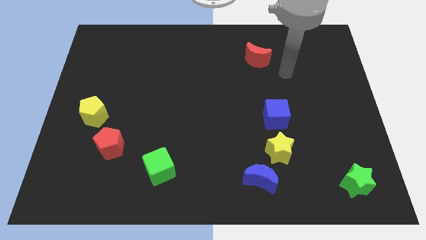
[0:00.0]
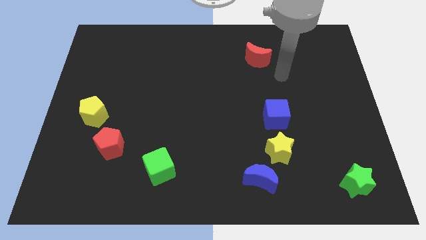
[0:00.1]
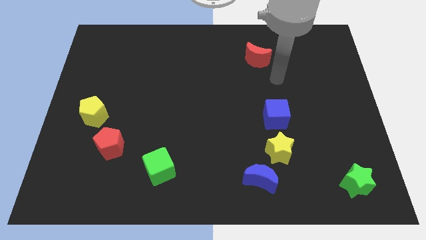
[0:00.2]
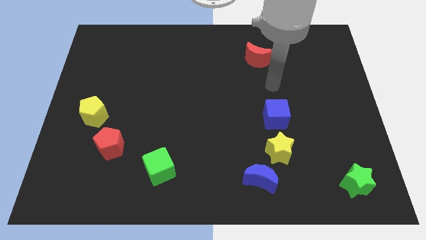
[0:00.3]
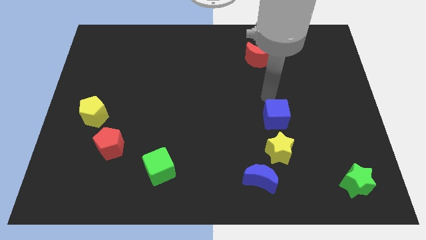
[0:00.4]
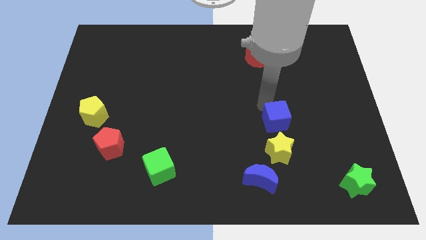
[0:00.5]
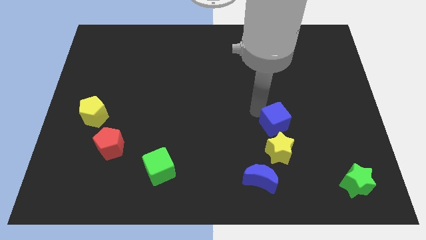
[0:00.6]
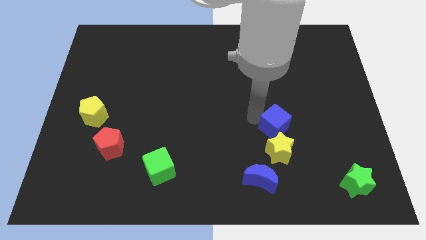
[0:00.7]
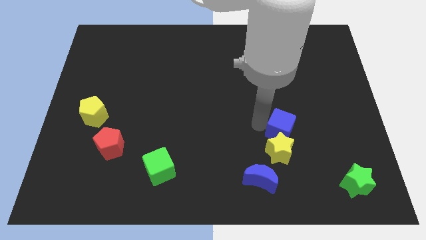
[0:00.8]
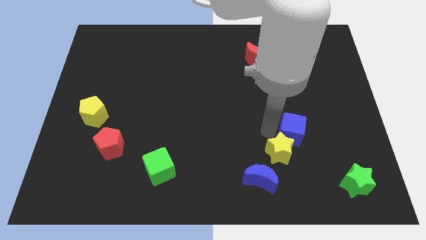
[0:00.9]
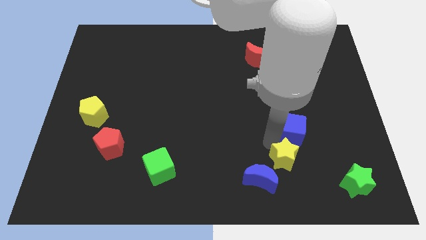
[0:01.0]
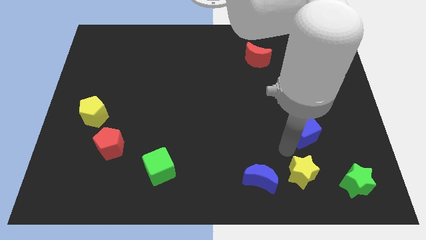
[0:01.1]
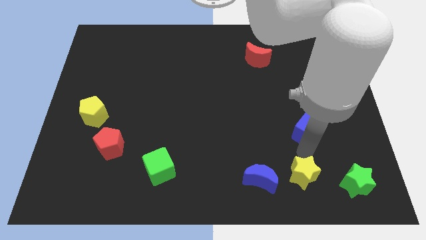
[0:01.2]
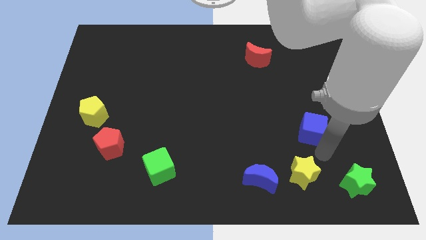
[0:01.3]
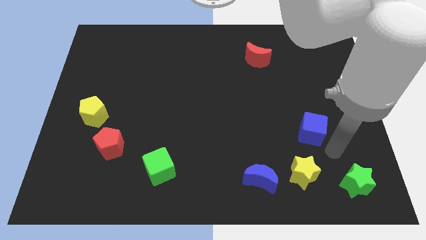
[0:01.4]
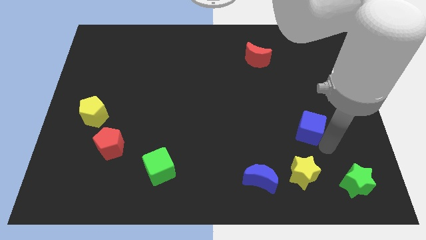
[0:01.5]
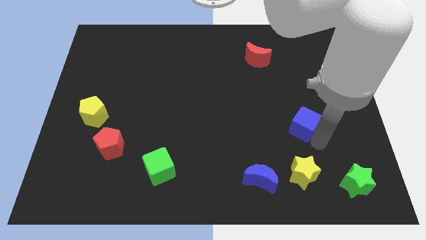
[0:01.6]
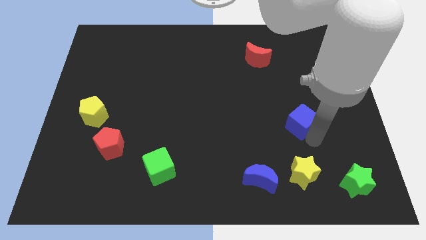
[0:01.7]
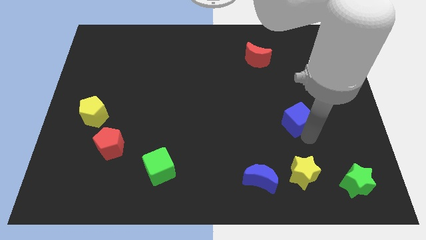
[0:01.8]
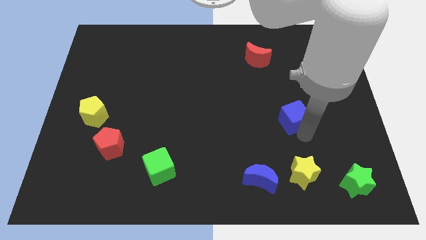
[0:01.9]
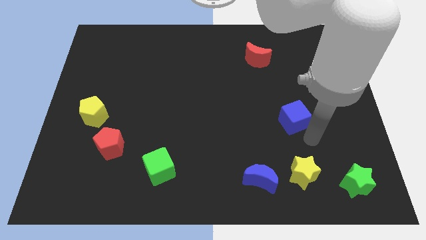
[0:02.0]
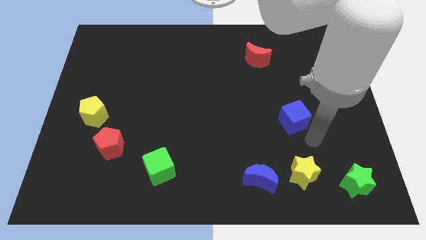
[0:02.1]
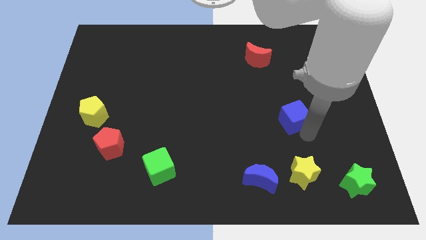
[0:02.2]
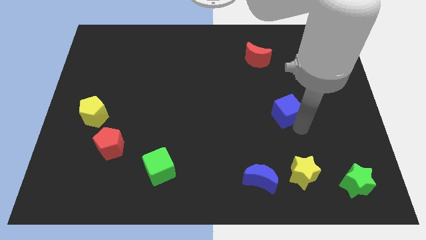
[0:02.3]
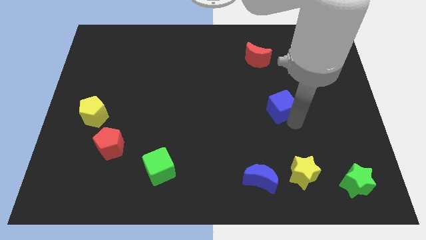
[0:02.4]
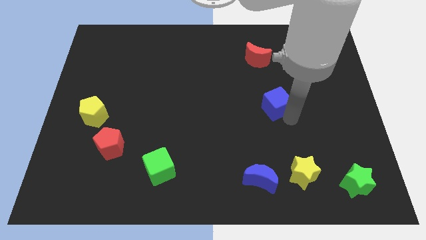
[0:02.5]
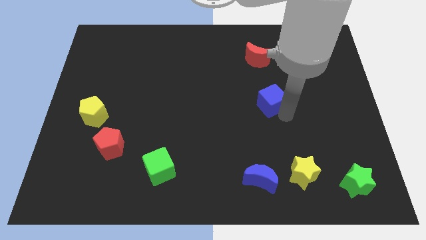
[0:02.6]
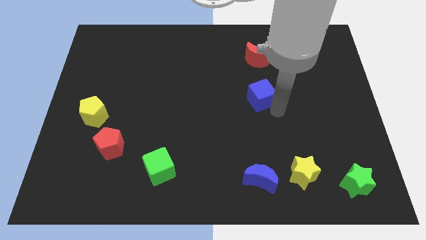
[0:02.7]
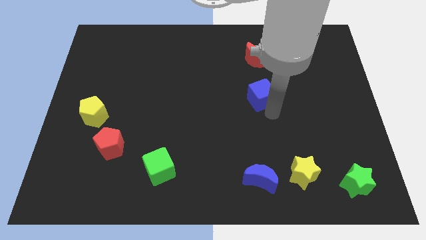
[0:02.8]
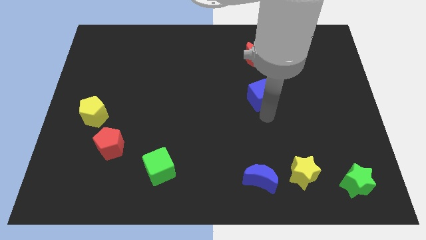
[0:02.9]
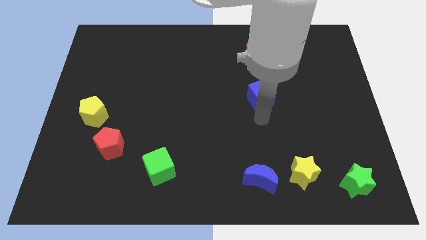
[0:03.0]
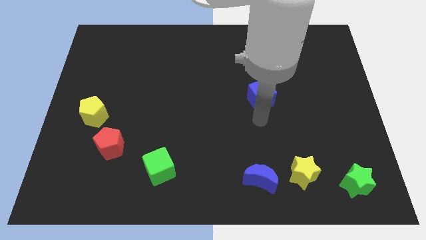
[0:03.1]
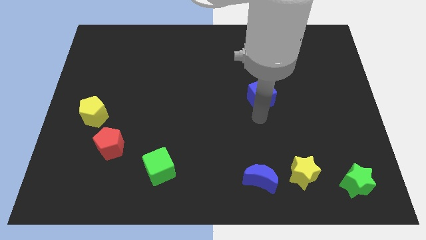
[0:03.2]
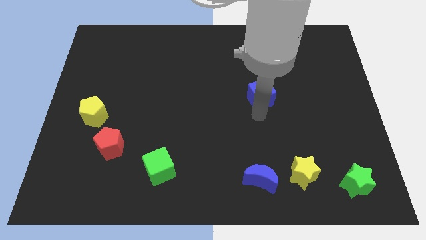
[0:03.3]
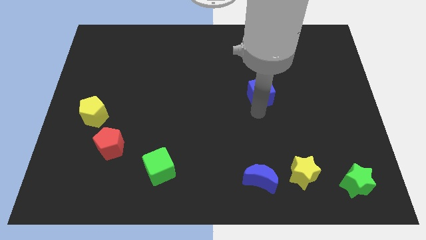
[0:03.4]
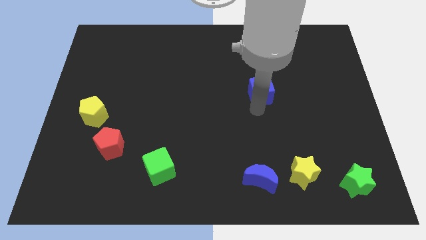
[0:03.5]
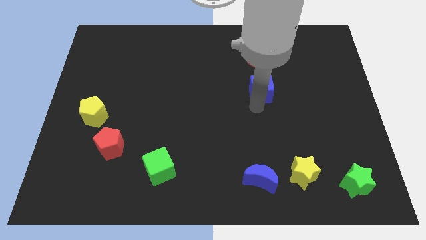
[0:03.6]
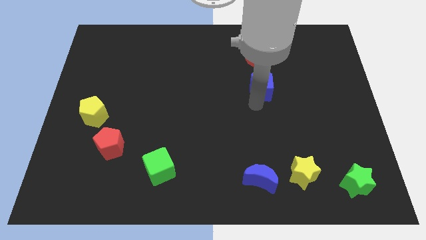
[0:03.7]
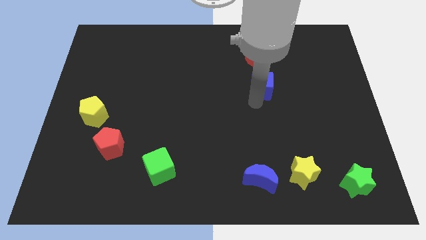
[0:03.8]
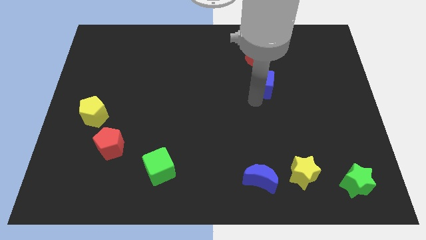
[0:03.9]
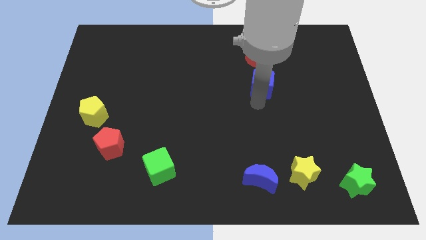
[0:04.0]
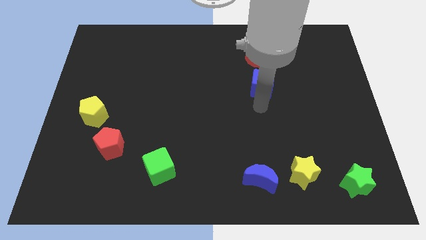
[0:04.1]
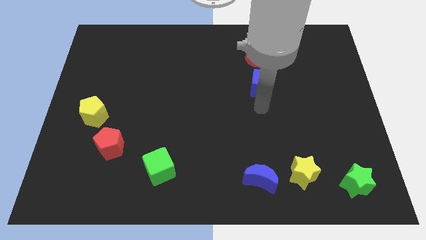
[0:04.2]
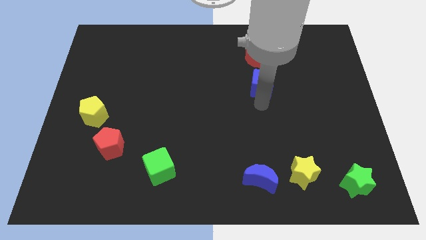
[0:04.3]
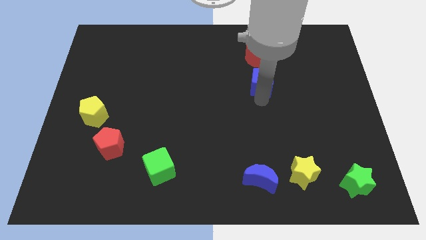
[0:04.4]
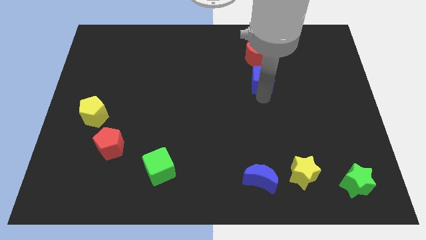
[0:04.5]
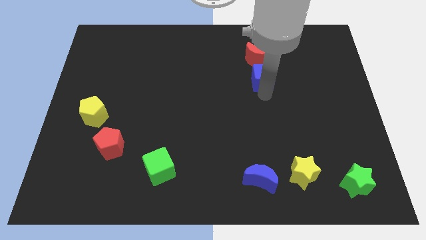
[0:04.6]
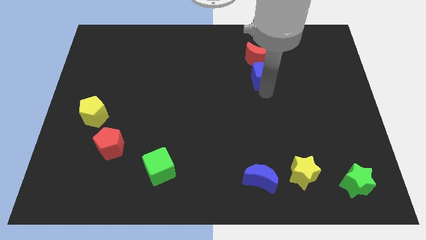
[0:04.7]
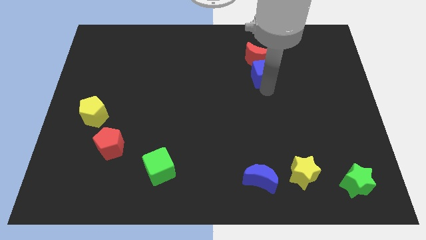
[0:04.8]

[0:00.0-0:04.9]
slide the blue cube next to the red moon

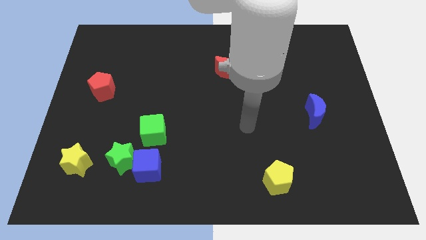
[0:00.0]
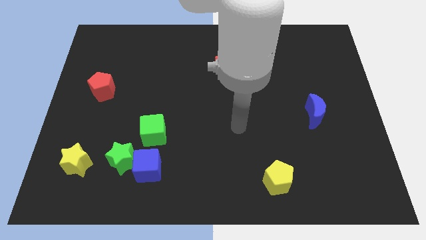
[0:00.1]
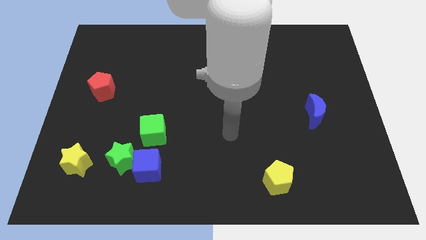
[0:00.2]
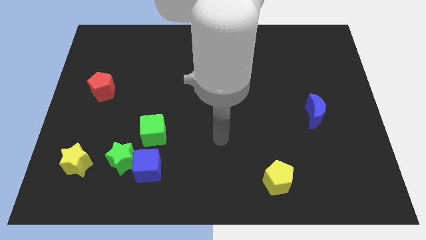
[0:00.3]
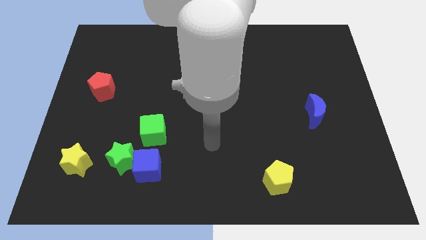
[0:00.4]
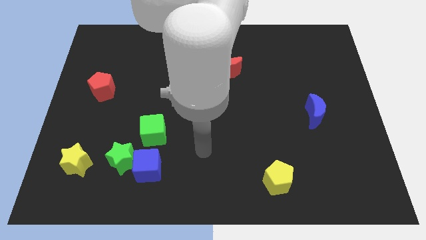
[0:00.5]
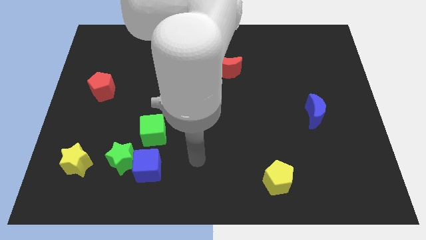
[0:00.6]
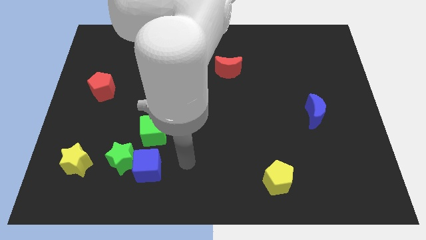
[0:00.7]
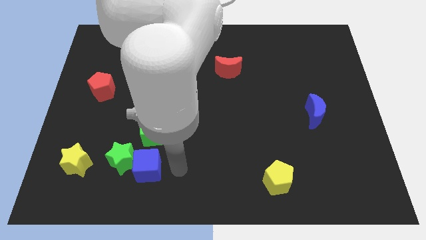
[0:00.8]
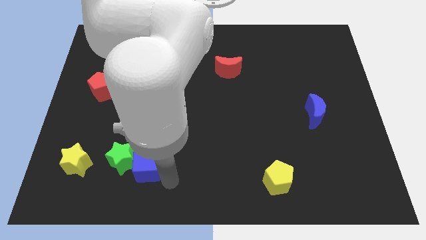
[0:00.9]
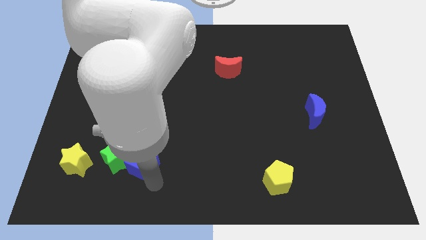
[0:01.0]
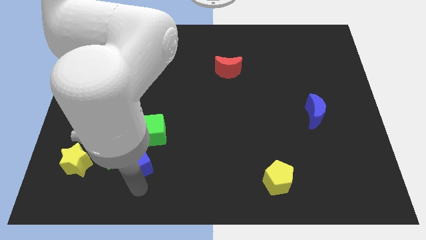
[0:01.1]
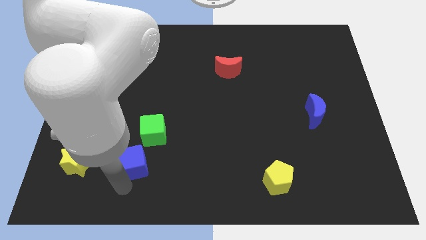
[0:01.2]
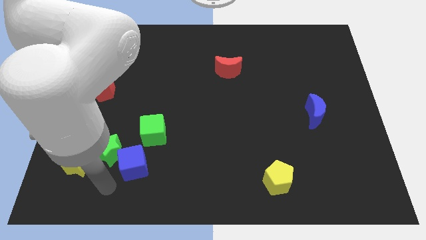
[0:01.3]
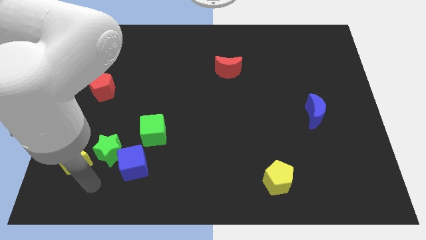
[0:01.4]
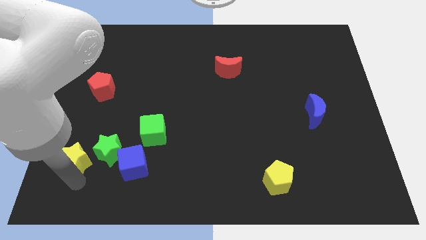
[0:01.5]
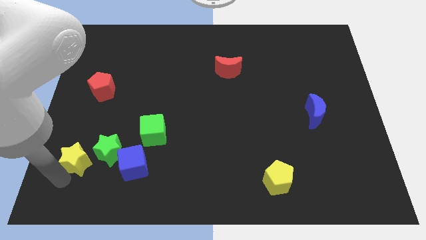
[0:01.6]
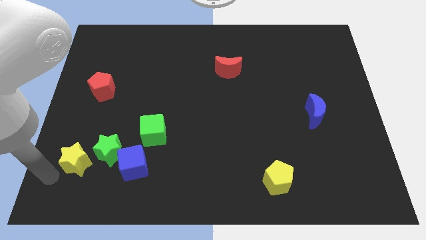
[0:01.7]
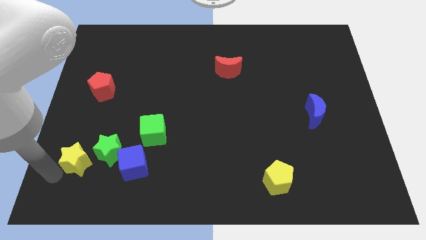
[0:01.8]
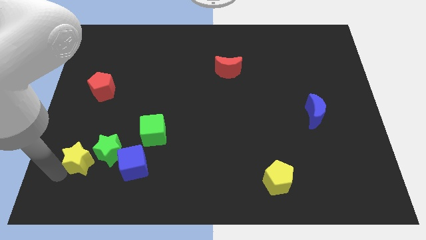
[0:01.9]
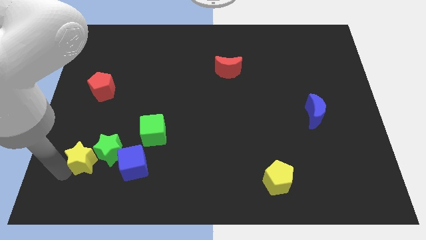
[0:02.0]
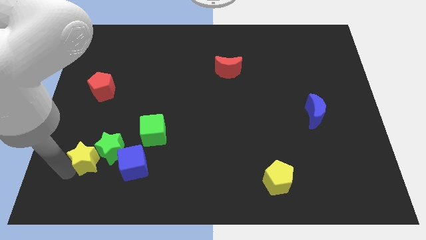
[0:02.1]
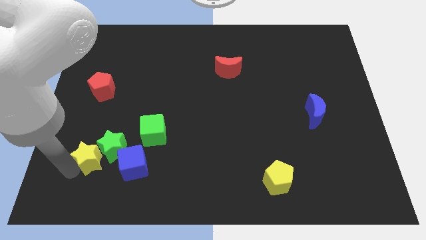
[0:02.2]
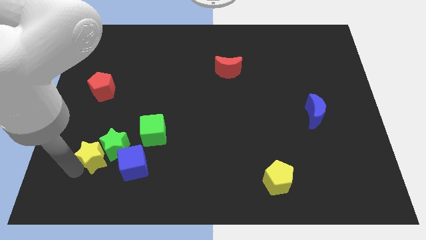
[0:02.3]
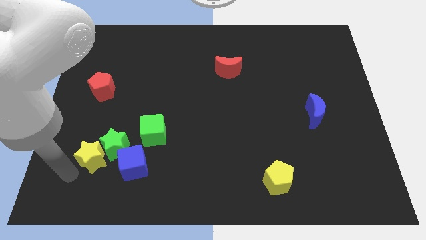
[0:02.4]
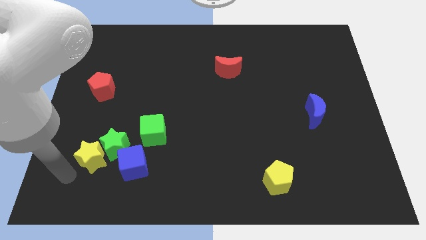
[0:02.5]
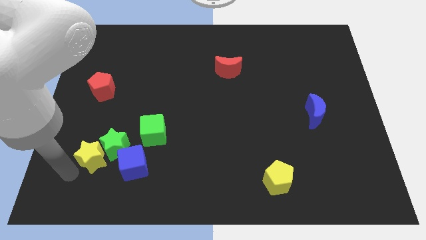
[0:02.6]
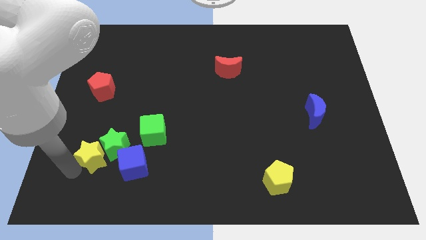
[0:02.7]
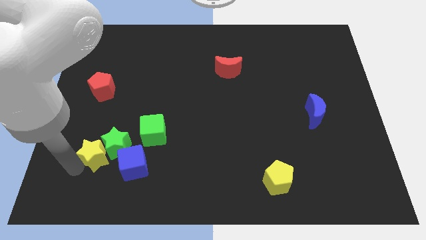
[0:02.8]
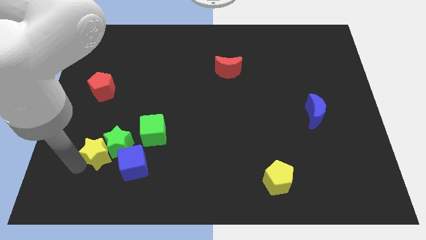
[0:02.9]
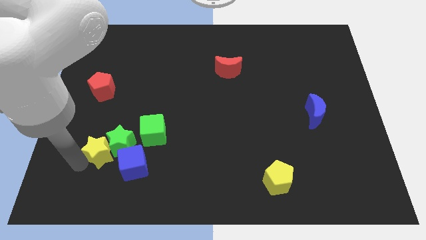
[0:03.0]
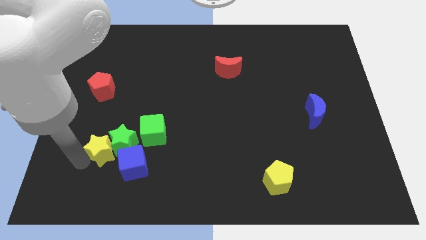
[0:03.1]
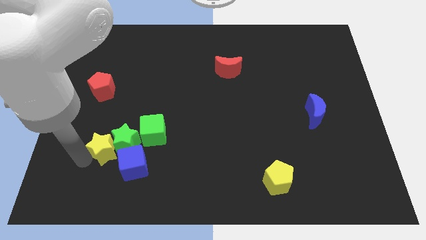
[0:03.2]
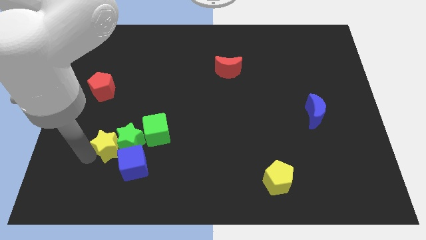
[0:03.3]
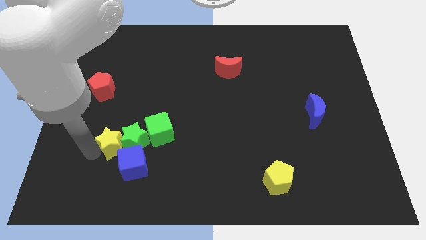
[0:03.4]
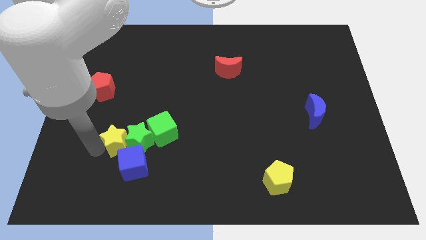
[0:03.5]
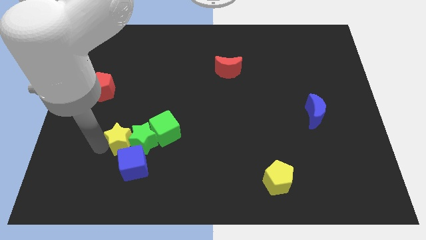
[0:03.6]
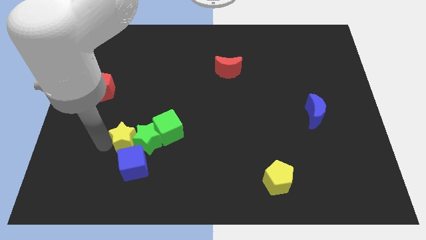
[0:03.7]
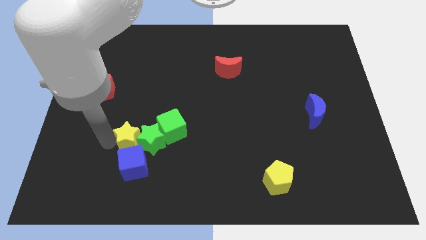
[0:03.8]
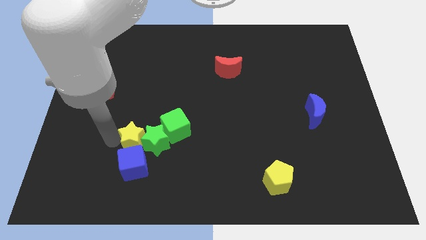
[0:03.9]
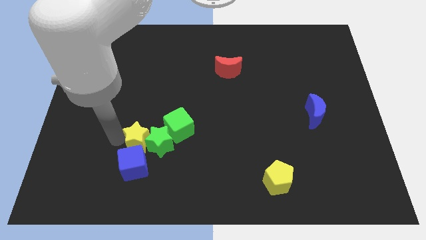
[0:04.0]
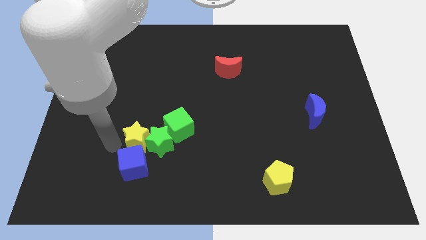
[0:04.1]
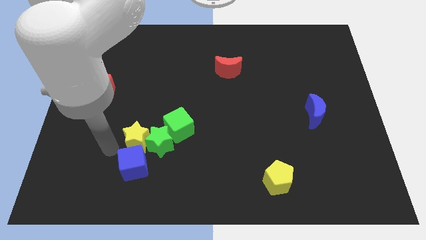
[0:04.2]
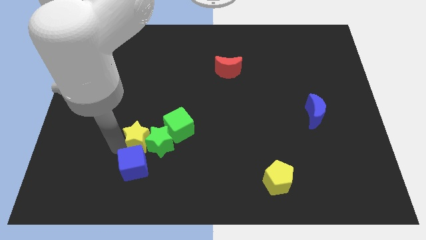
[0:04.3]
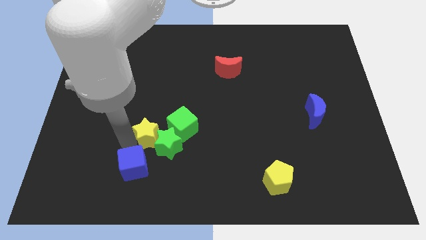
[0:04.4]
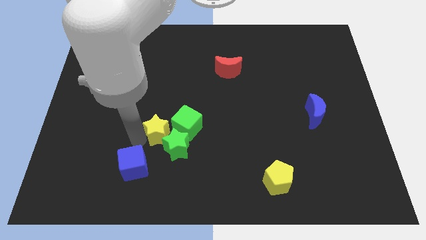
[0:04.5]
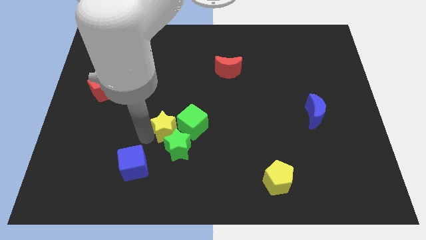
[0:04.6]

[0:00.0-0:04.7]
put the yellow star next to the green cube
